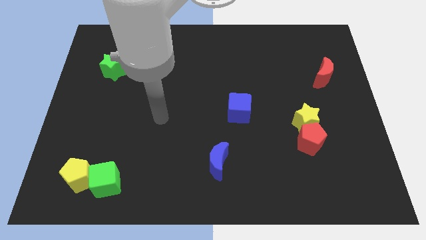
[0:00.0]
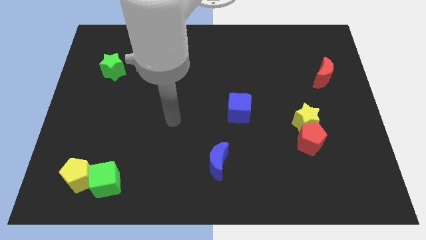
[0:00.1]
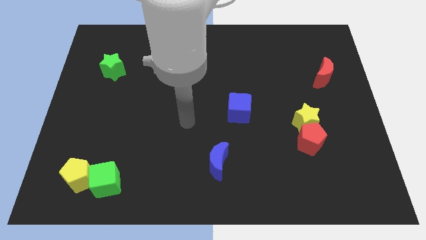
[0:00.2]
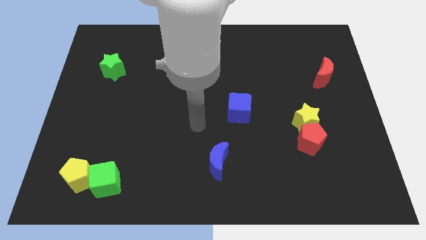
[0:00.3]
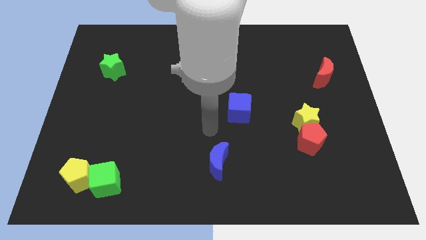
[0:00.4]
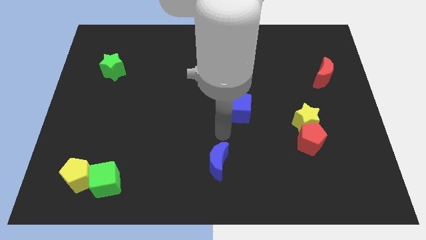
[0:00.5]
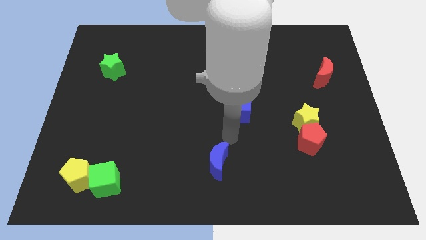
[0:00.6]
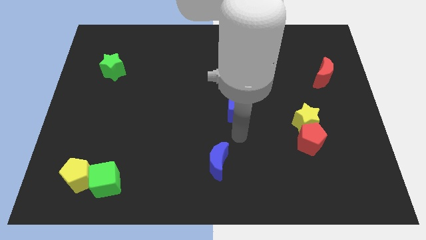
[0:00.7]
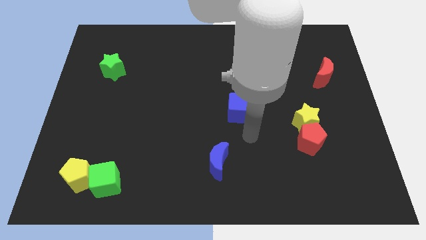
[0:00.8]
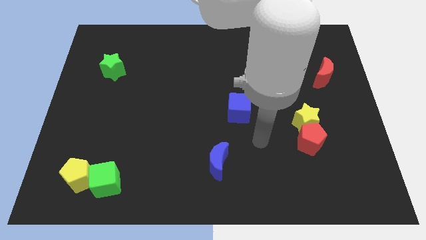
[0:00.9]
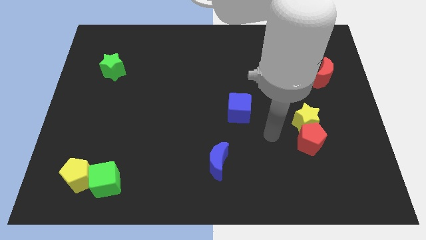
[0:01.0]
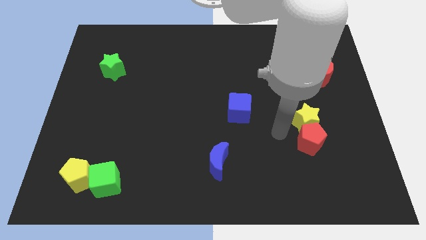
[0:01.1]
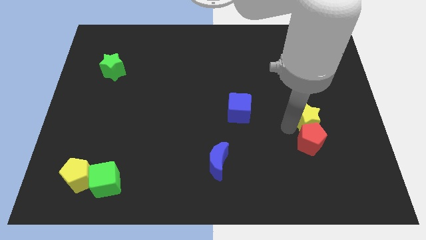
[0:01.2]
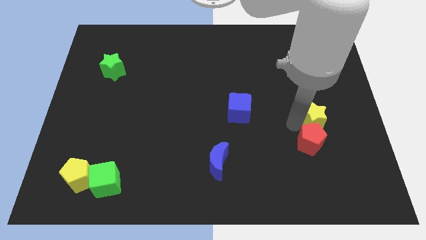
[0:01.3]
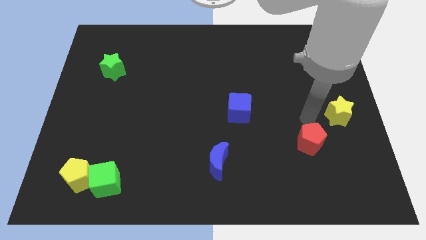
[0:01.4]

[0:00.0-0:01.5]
pull the red pentagon apart from the yellow star

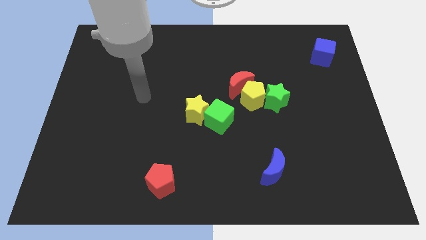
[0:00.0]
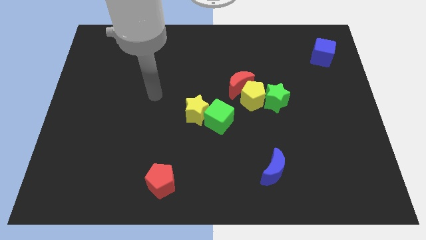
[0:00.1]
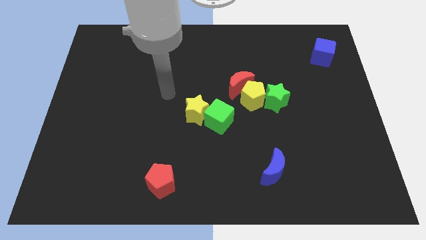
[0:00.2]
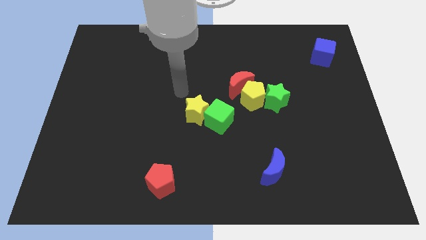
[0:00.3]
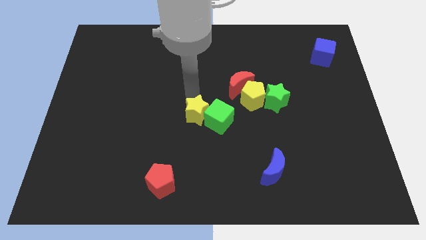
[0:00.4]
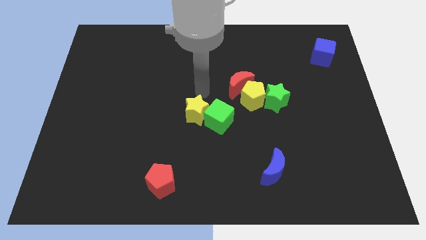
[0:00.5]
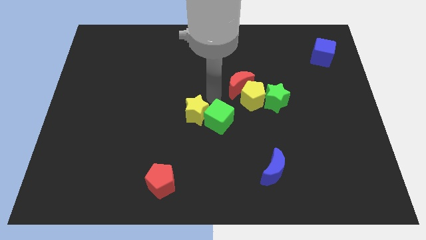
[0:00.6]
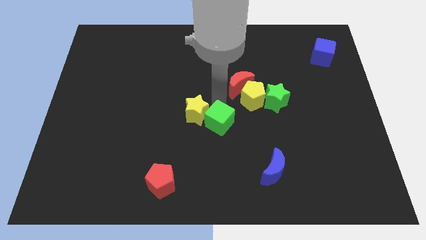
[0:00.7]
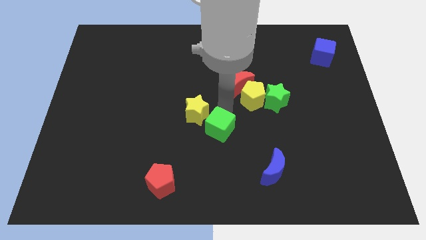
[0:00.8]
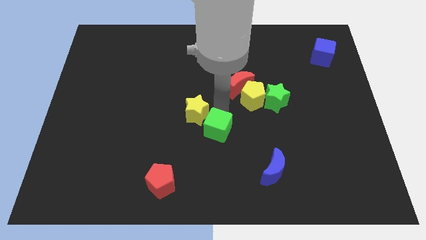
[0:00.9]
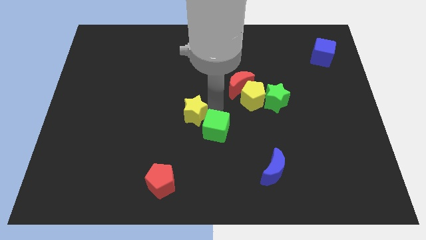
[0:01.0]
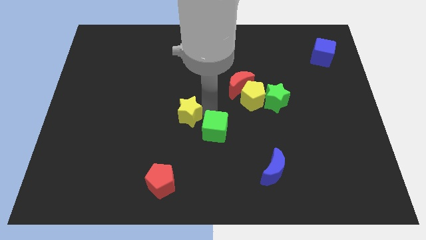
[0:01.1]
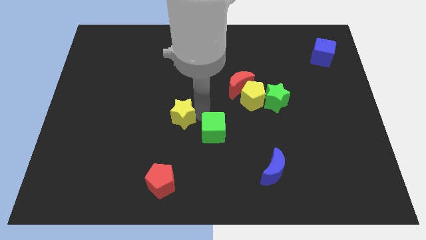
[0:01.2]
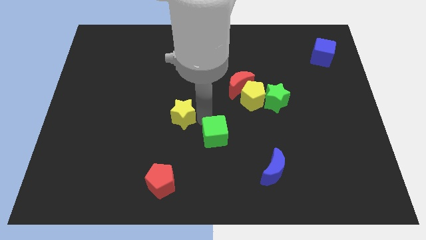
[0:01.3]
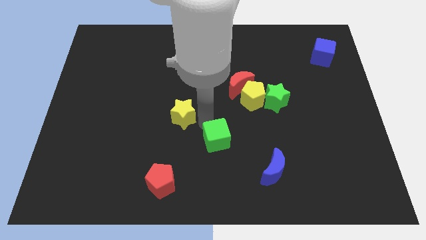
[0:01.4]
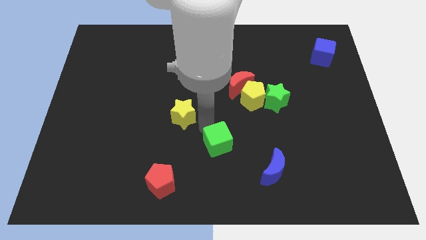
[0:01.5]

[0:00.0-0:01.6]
separate the yellow star from the green cube

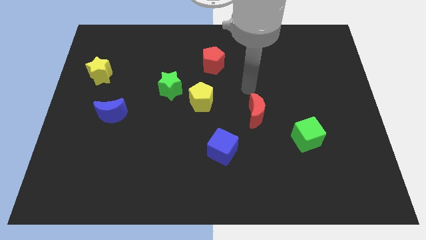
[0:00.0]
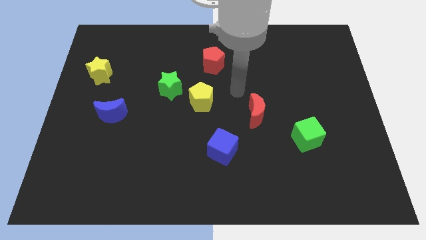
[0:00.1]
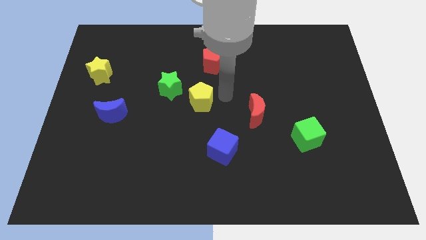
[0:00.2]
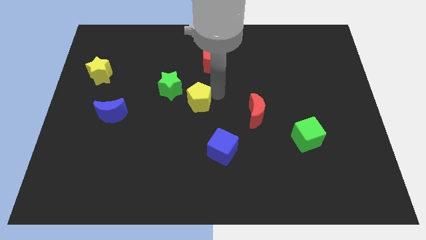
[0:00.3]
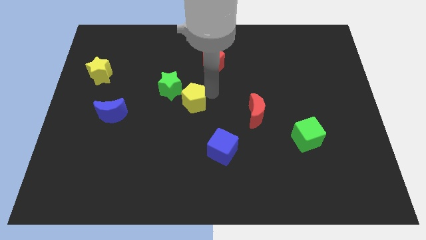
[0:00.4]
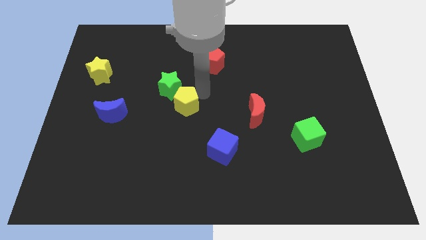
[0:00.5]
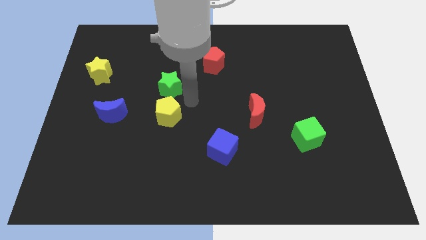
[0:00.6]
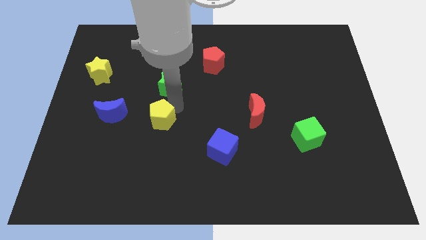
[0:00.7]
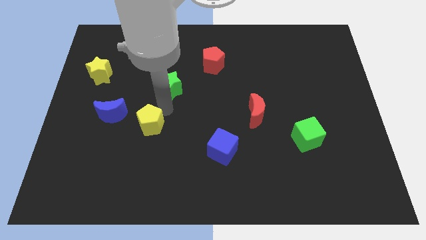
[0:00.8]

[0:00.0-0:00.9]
move the green star away from the yellow pentagon

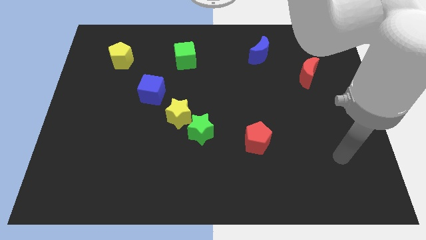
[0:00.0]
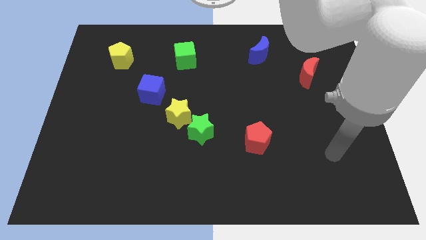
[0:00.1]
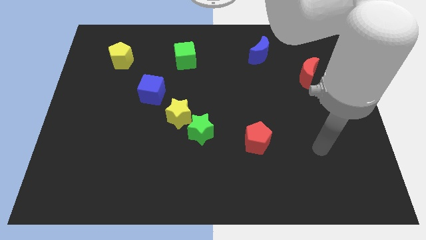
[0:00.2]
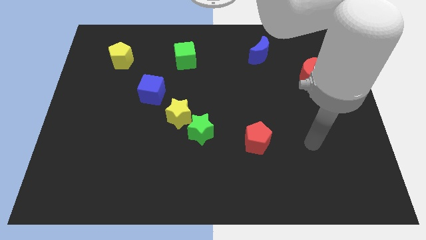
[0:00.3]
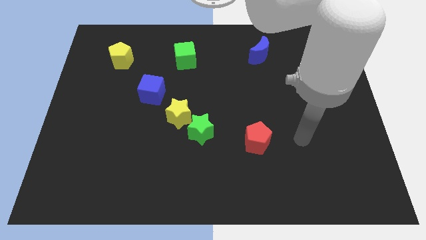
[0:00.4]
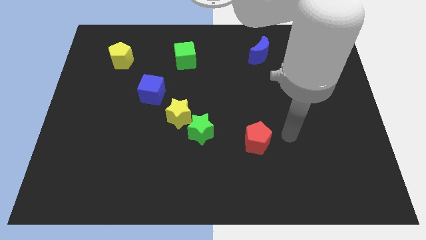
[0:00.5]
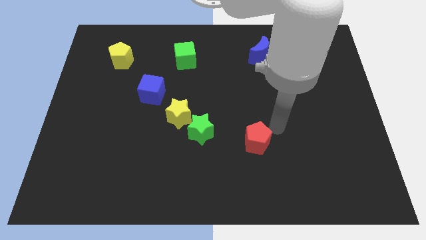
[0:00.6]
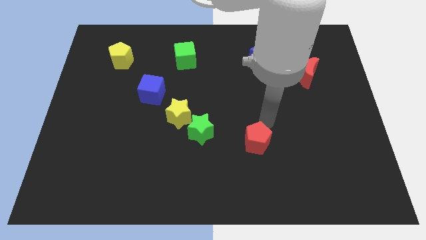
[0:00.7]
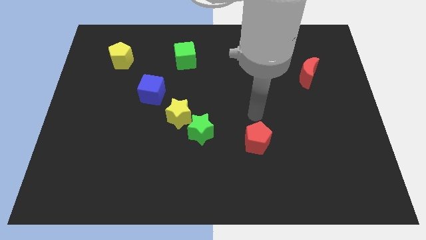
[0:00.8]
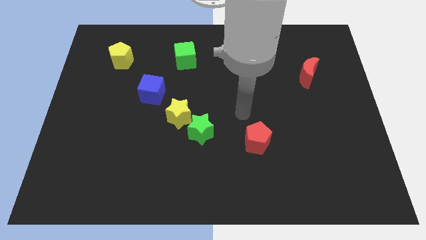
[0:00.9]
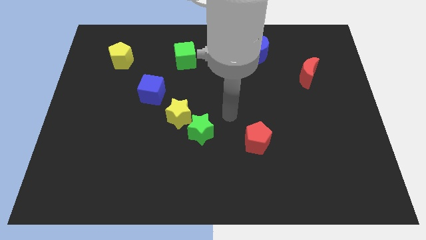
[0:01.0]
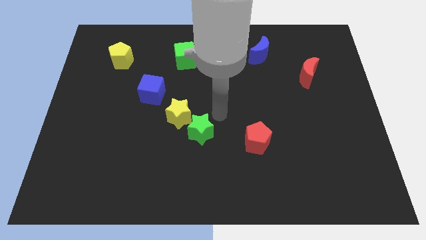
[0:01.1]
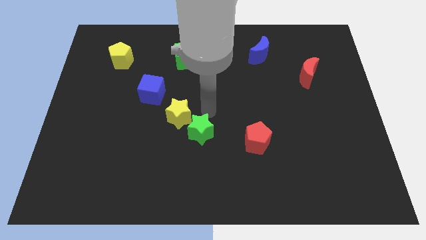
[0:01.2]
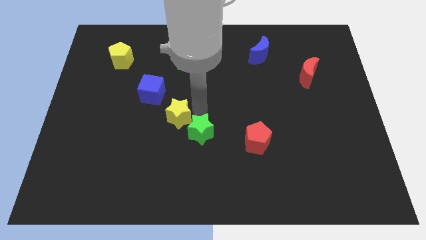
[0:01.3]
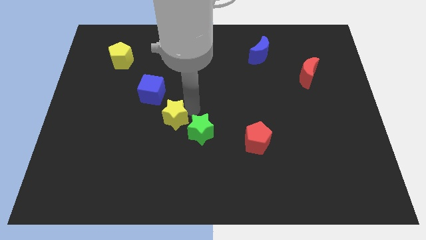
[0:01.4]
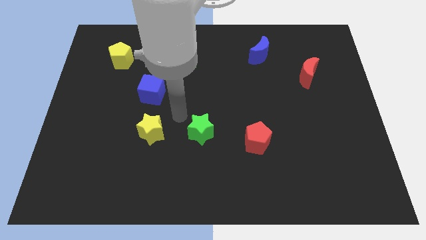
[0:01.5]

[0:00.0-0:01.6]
separate the green star from the yellow star

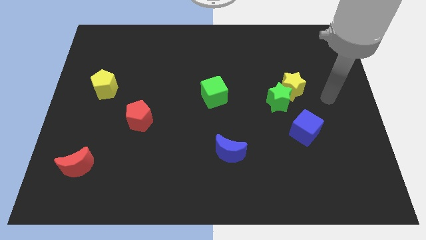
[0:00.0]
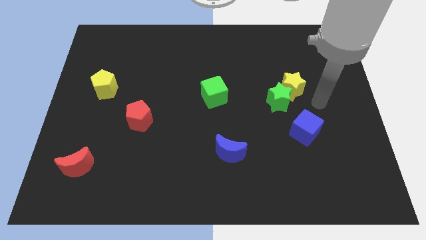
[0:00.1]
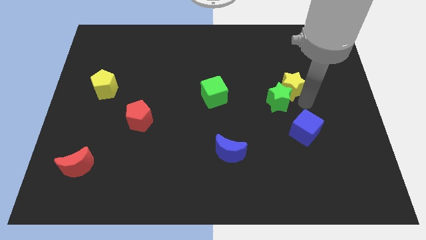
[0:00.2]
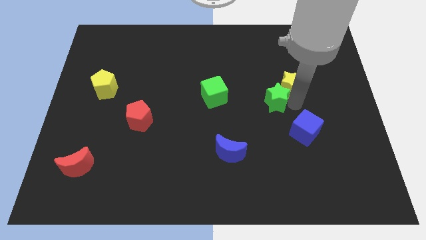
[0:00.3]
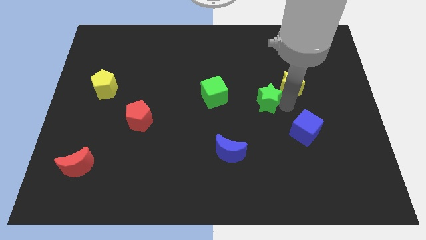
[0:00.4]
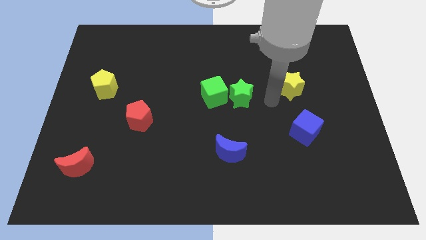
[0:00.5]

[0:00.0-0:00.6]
separate the yellow star from the green star

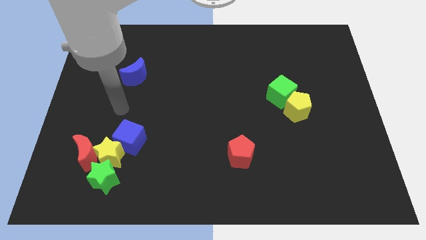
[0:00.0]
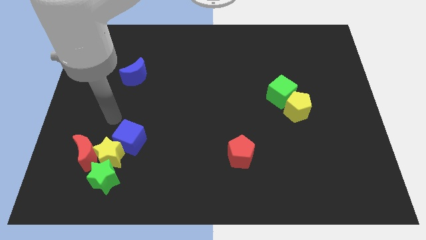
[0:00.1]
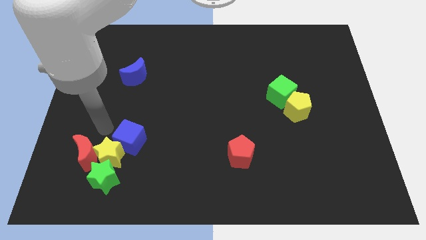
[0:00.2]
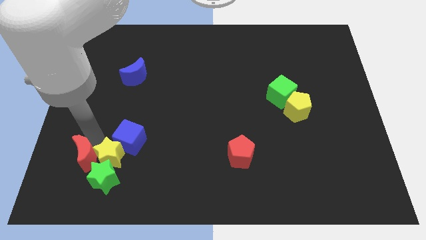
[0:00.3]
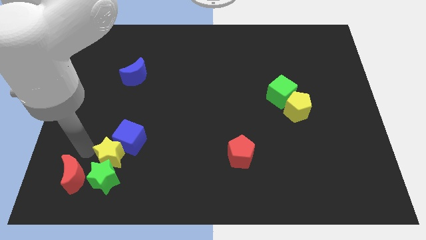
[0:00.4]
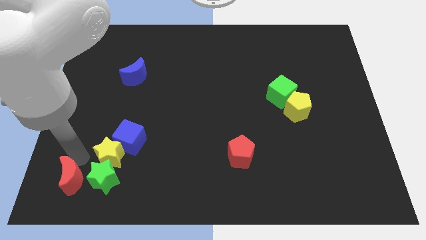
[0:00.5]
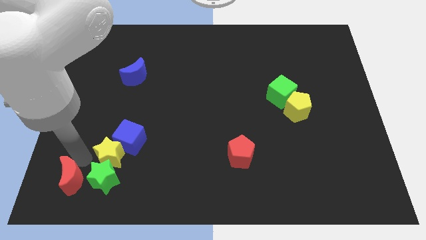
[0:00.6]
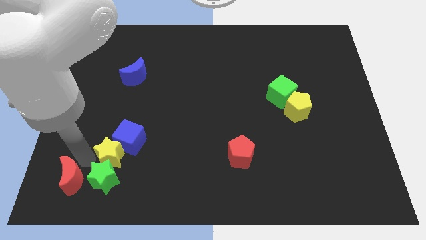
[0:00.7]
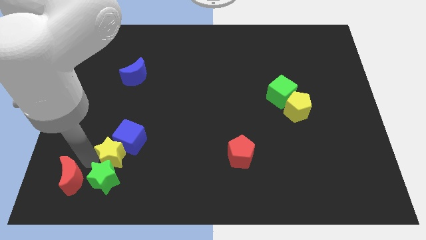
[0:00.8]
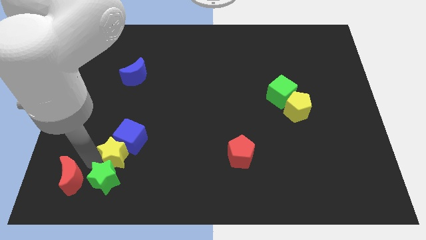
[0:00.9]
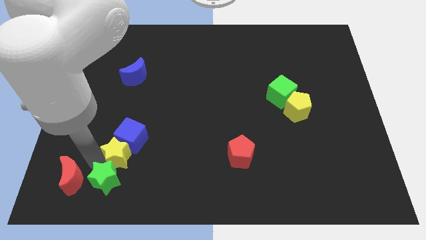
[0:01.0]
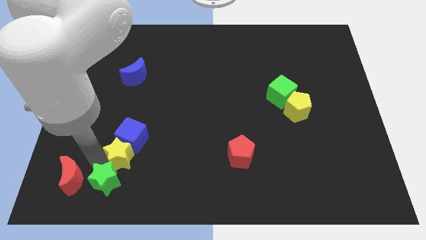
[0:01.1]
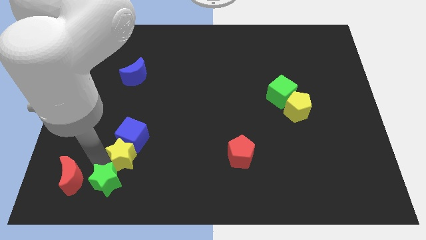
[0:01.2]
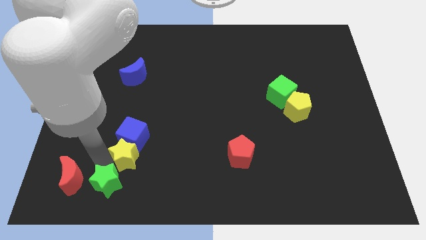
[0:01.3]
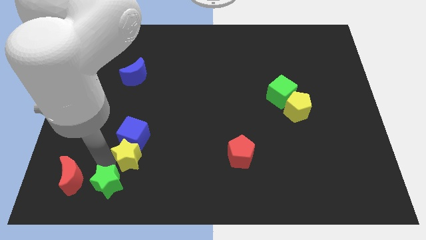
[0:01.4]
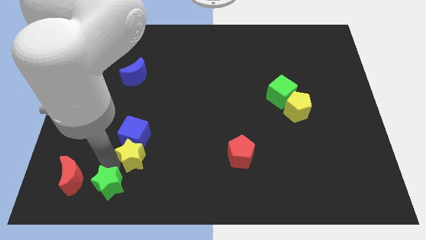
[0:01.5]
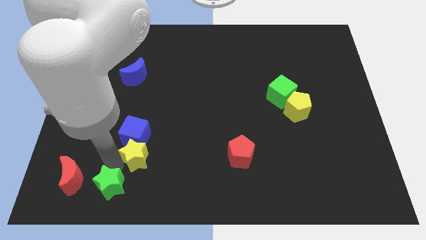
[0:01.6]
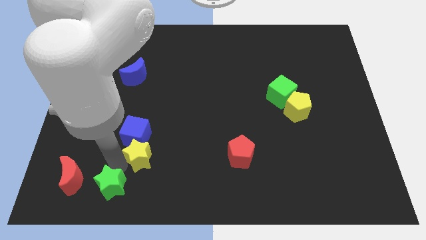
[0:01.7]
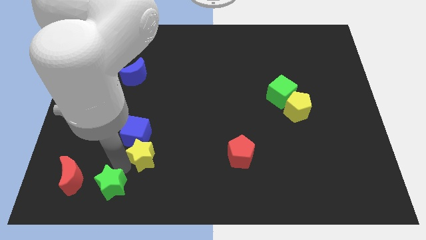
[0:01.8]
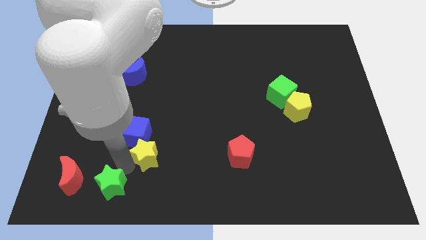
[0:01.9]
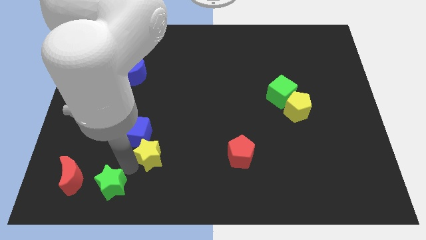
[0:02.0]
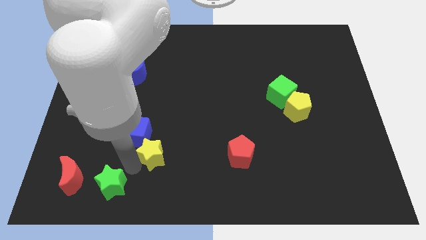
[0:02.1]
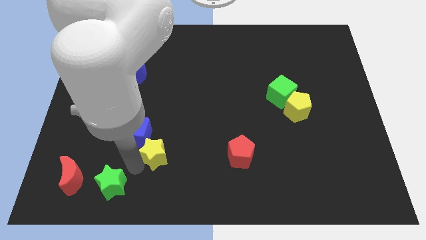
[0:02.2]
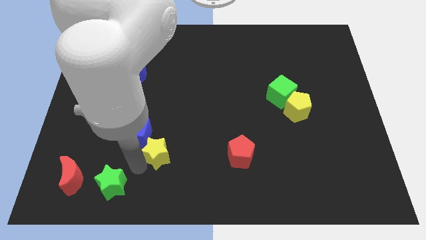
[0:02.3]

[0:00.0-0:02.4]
separate the yellow star from the red moon, green star, and blue cube

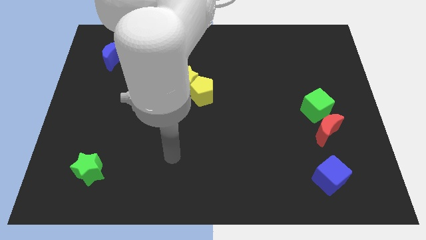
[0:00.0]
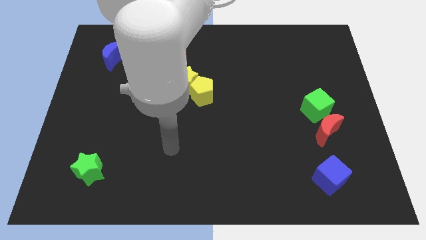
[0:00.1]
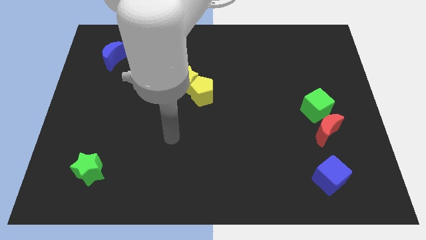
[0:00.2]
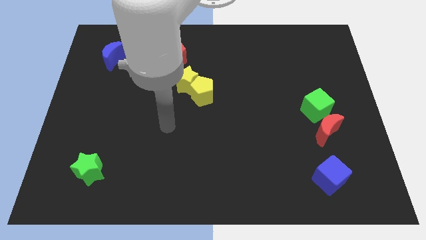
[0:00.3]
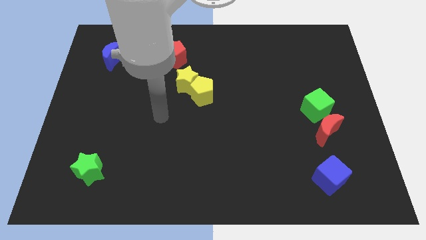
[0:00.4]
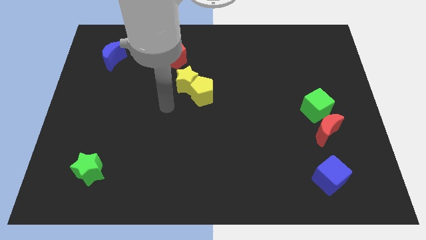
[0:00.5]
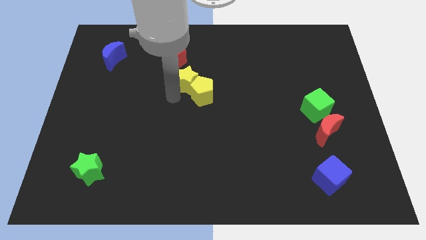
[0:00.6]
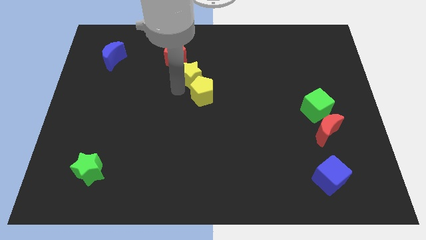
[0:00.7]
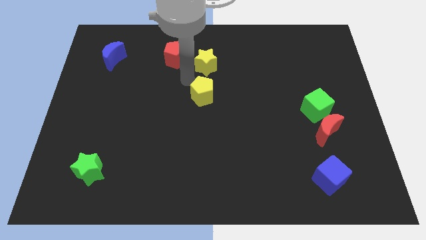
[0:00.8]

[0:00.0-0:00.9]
move the yellow pentagon away from the yellow star
